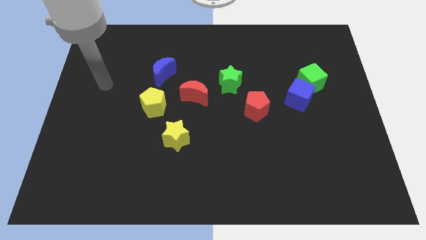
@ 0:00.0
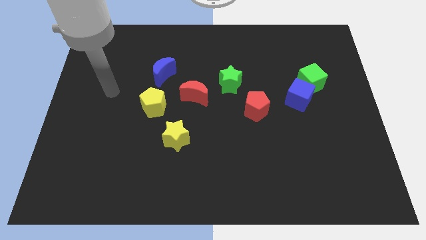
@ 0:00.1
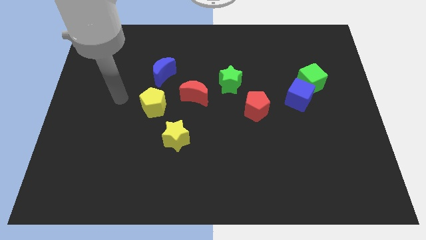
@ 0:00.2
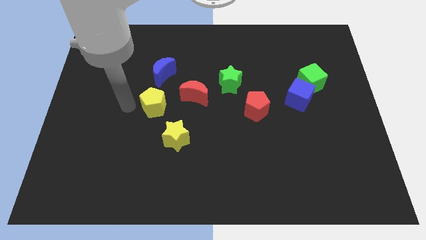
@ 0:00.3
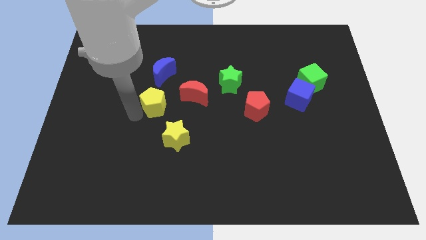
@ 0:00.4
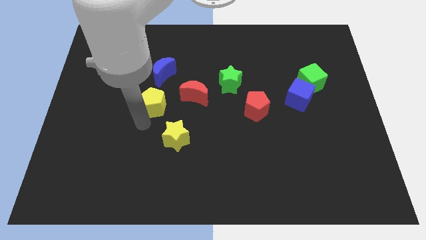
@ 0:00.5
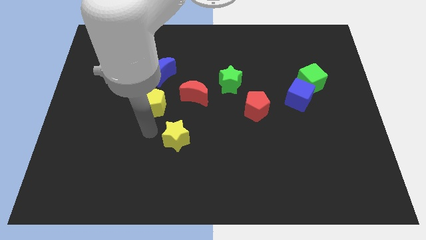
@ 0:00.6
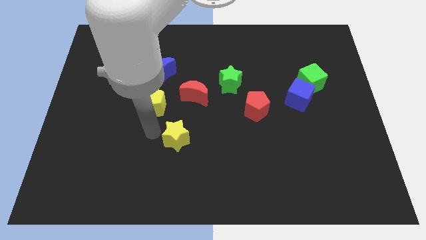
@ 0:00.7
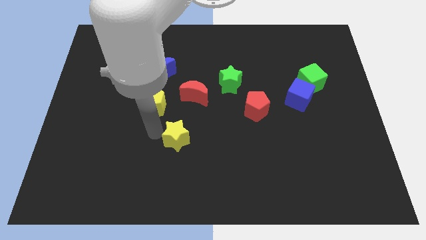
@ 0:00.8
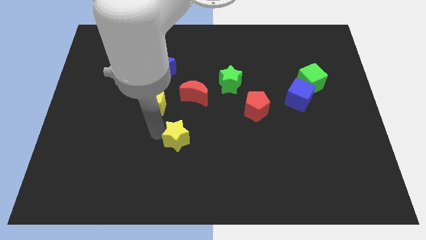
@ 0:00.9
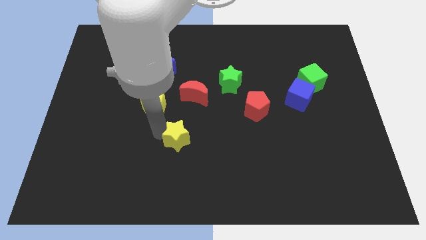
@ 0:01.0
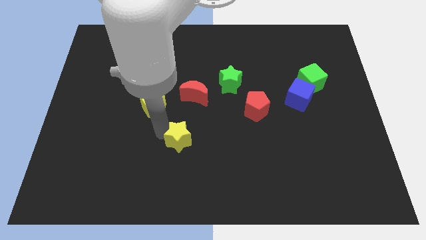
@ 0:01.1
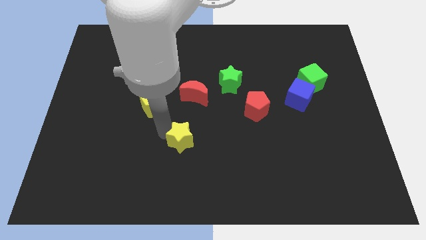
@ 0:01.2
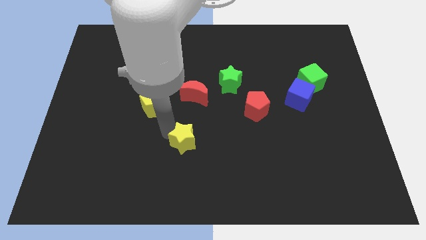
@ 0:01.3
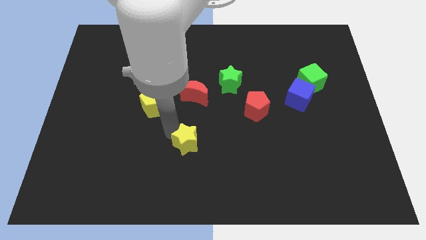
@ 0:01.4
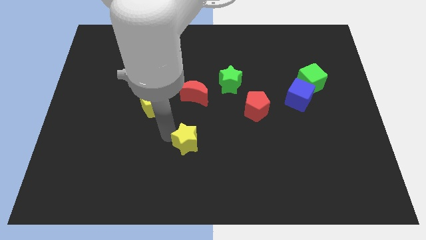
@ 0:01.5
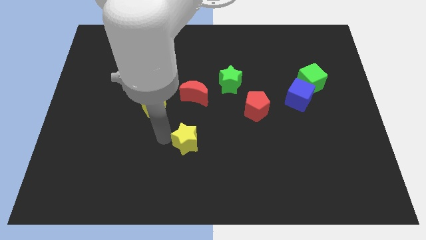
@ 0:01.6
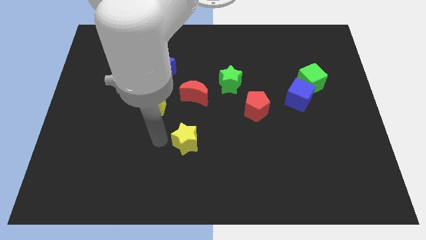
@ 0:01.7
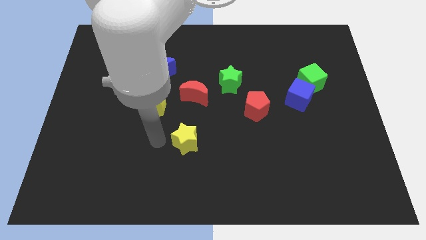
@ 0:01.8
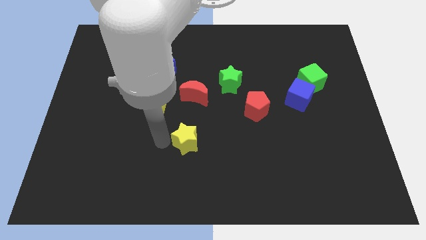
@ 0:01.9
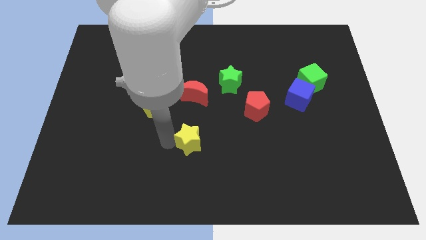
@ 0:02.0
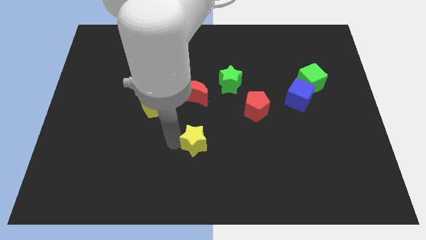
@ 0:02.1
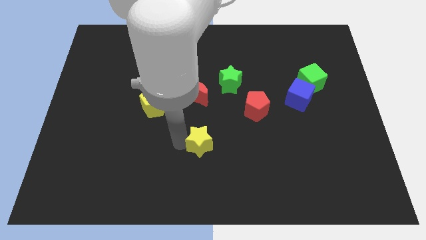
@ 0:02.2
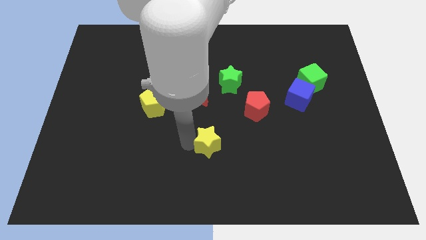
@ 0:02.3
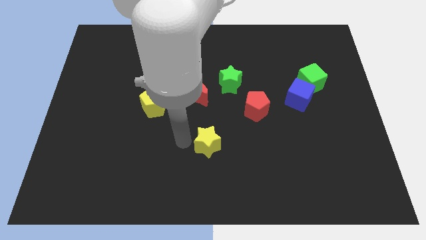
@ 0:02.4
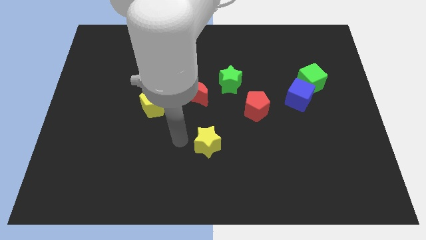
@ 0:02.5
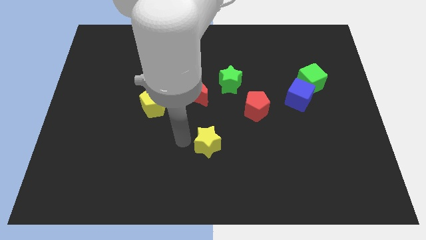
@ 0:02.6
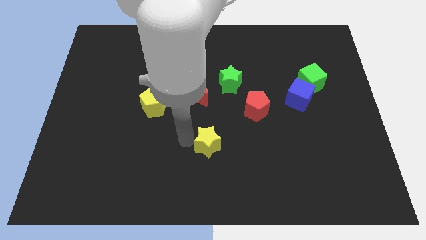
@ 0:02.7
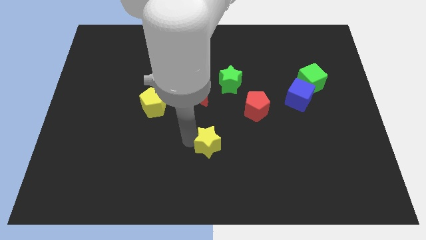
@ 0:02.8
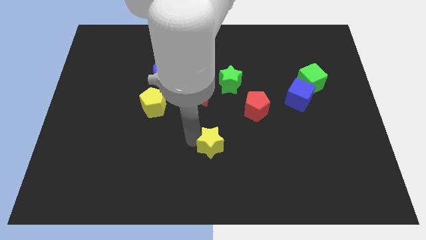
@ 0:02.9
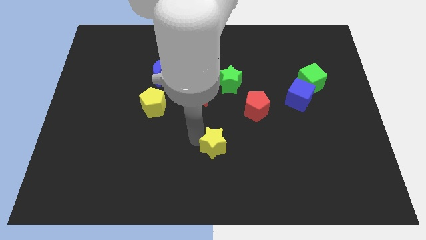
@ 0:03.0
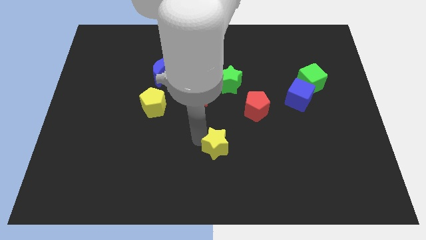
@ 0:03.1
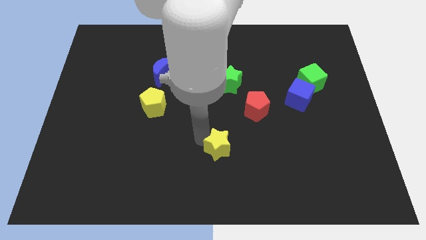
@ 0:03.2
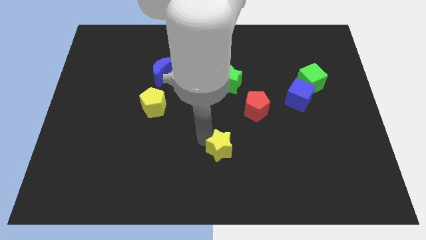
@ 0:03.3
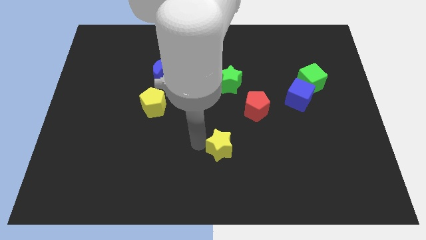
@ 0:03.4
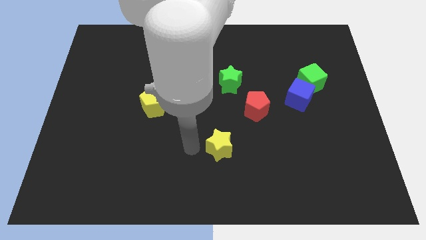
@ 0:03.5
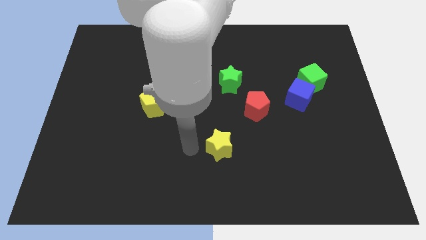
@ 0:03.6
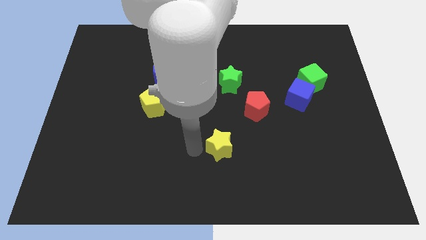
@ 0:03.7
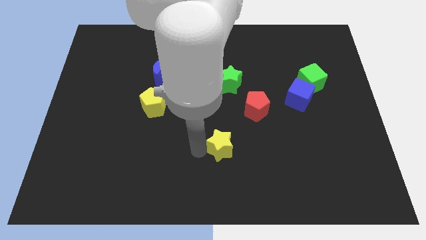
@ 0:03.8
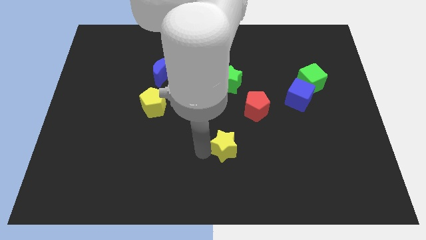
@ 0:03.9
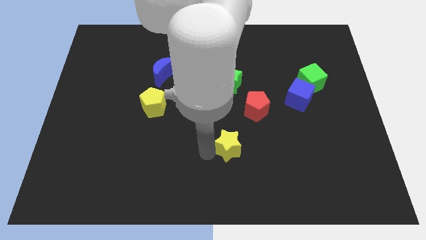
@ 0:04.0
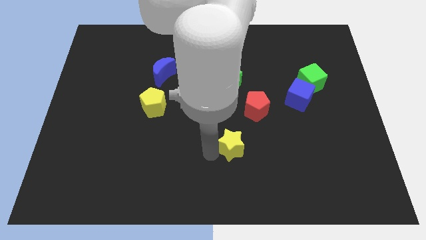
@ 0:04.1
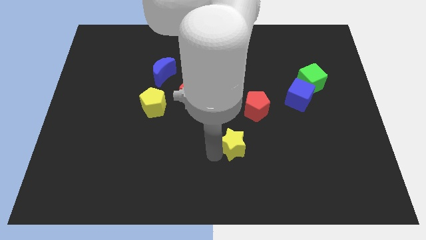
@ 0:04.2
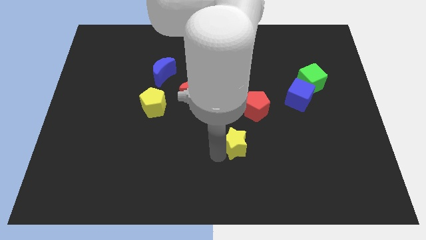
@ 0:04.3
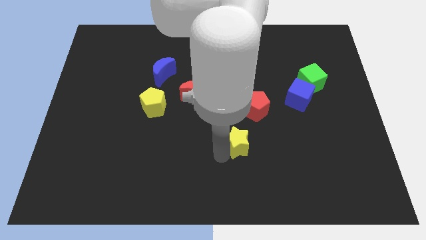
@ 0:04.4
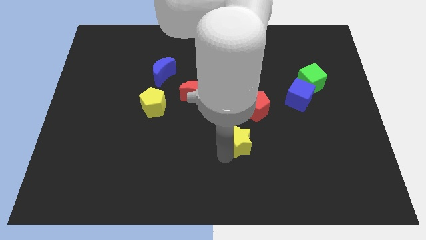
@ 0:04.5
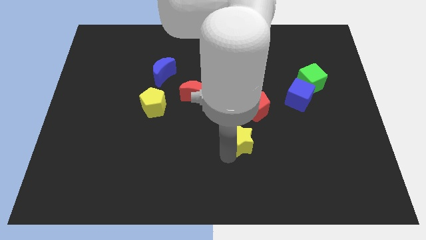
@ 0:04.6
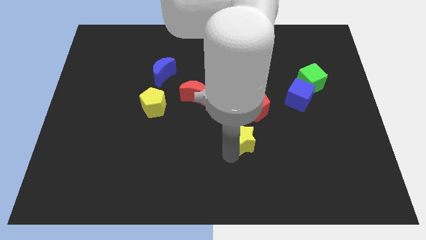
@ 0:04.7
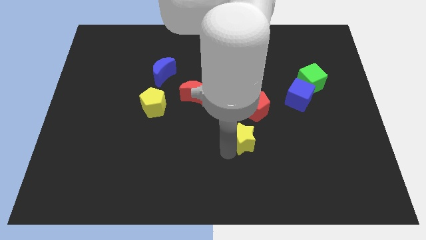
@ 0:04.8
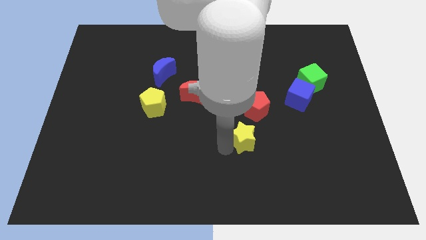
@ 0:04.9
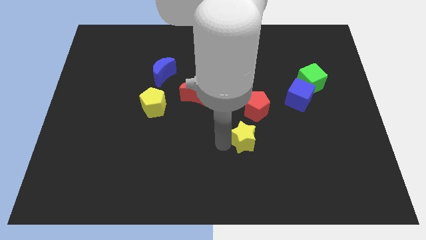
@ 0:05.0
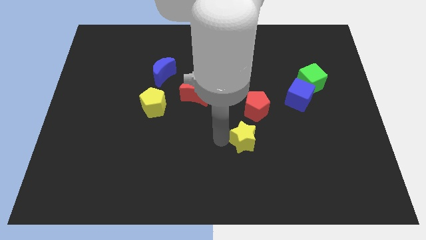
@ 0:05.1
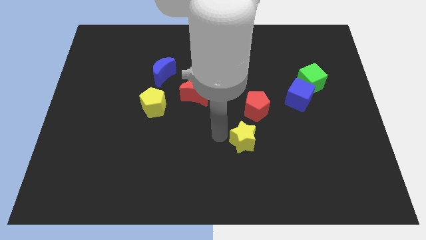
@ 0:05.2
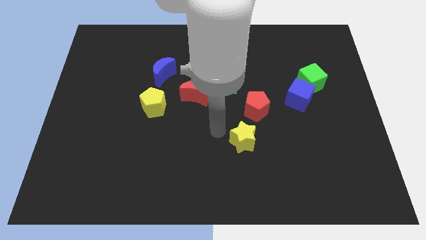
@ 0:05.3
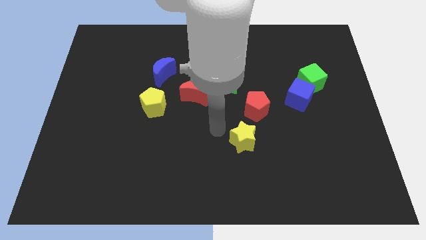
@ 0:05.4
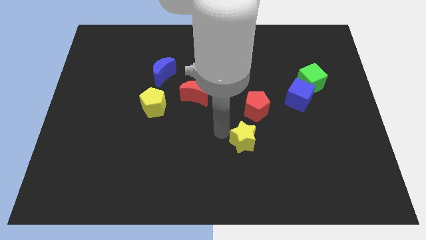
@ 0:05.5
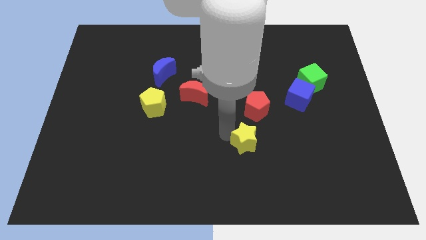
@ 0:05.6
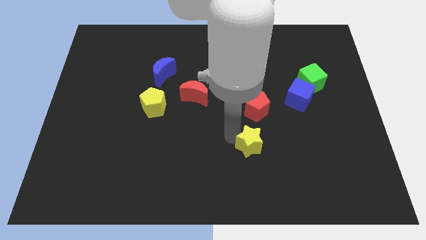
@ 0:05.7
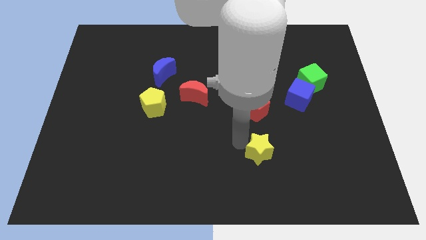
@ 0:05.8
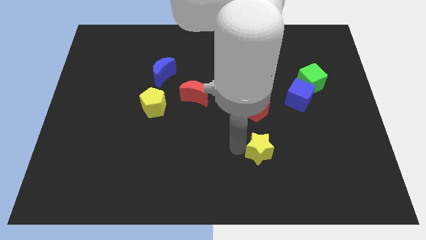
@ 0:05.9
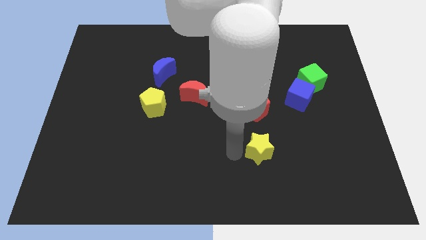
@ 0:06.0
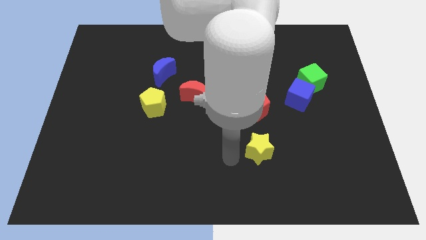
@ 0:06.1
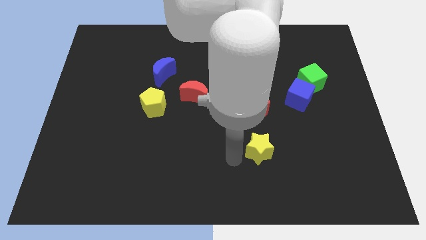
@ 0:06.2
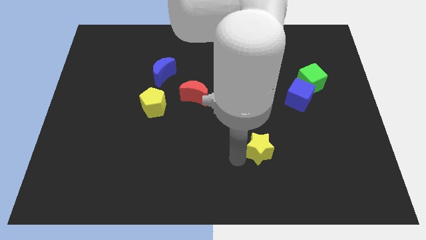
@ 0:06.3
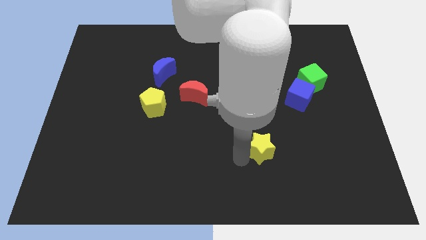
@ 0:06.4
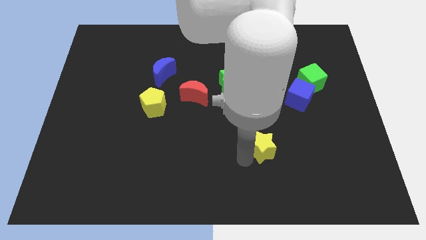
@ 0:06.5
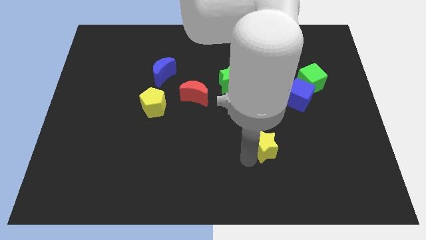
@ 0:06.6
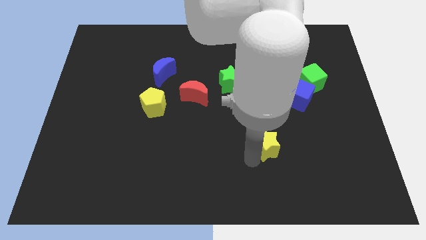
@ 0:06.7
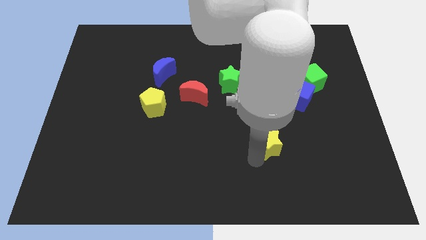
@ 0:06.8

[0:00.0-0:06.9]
move the yellow star right
